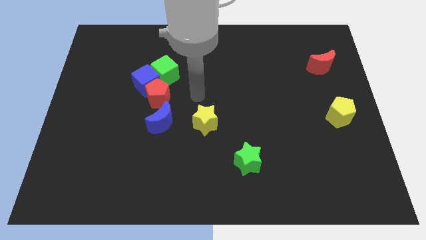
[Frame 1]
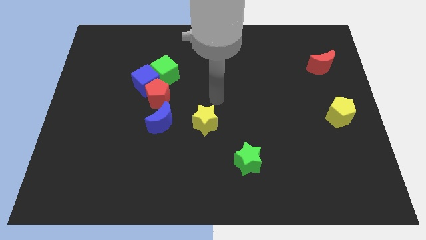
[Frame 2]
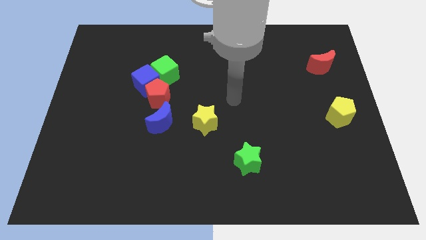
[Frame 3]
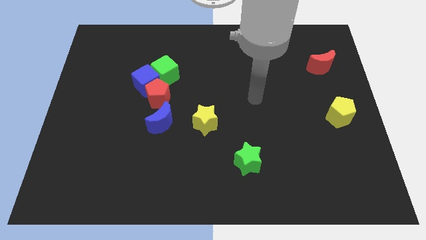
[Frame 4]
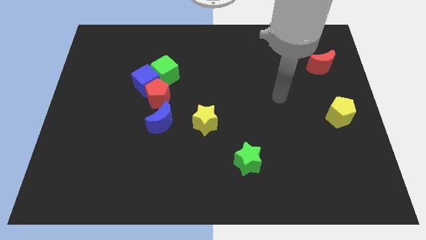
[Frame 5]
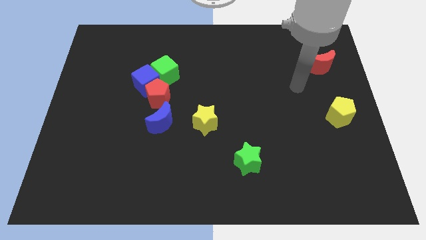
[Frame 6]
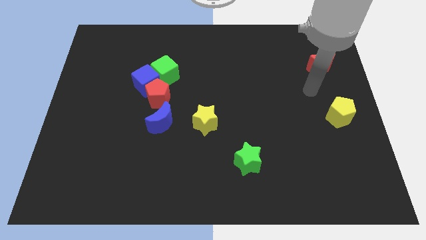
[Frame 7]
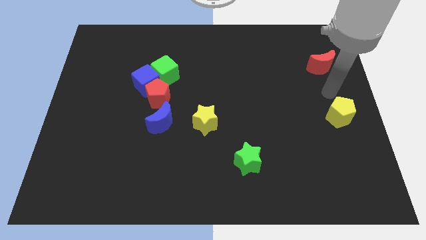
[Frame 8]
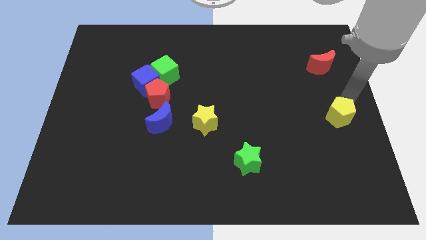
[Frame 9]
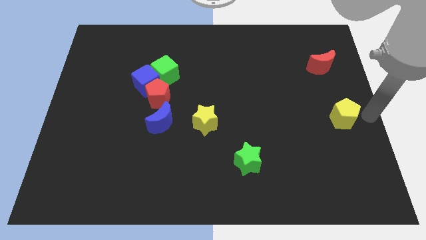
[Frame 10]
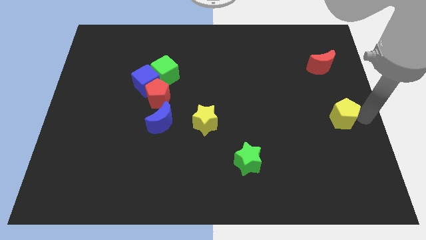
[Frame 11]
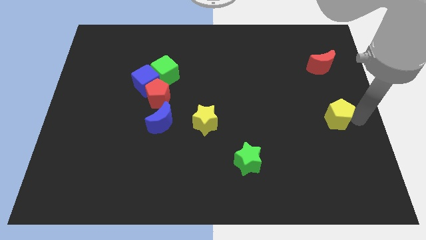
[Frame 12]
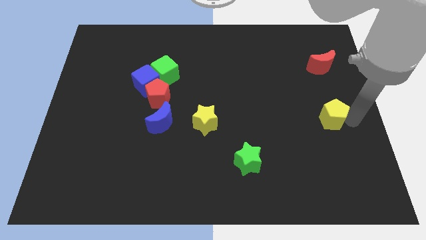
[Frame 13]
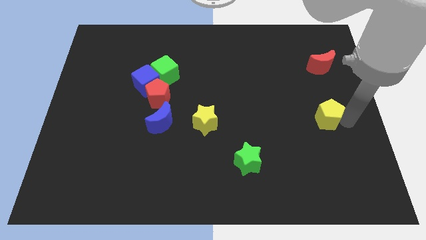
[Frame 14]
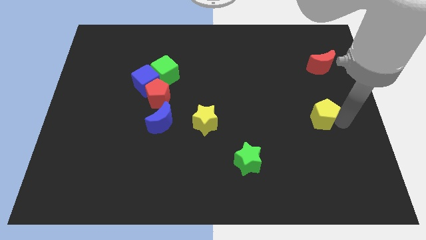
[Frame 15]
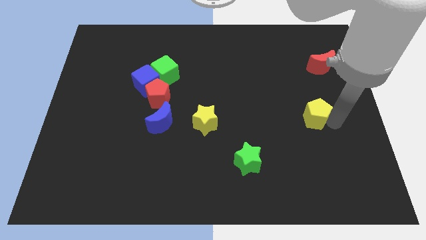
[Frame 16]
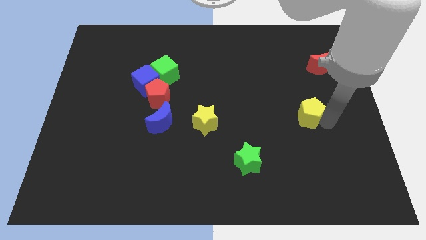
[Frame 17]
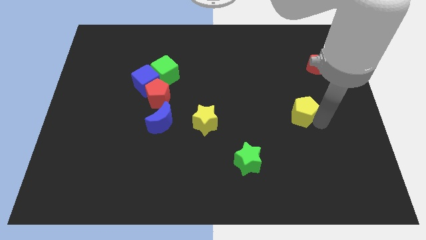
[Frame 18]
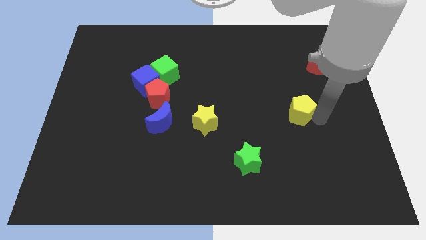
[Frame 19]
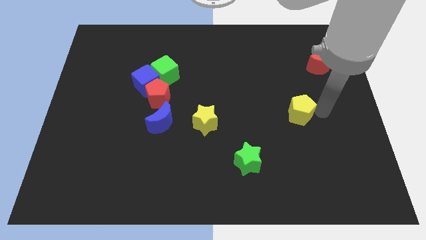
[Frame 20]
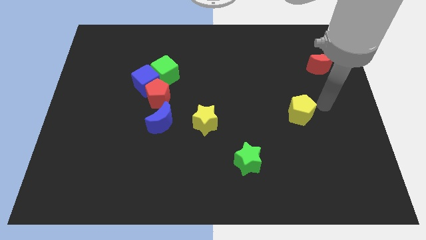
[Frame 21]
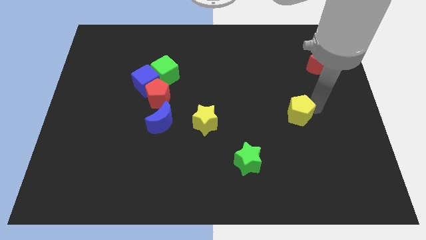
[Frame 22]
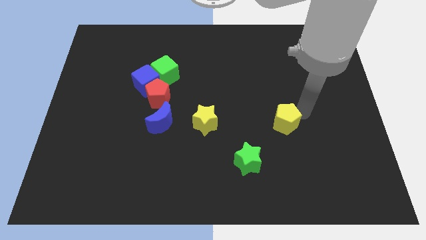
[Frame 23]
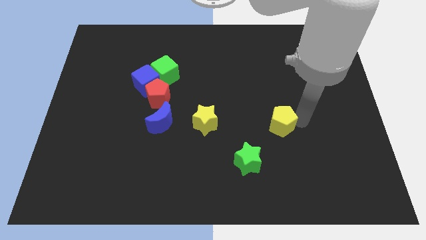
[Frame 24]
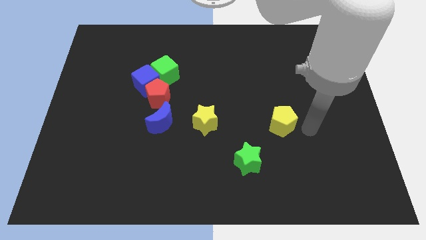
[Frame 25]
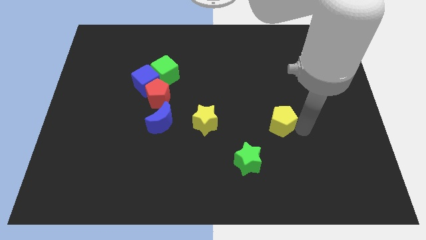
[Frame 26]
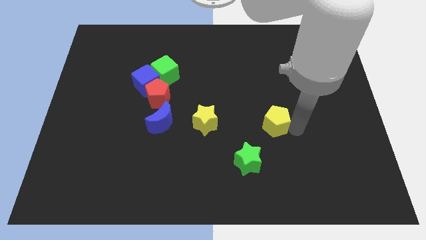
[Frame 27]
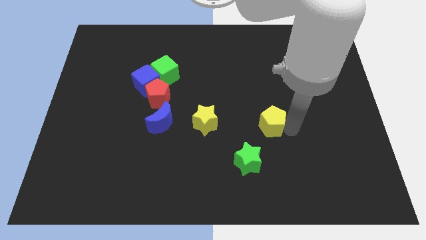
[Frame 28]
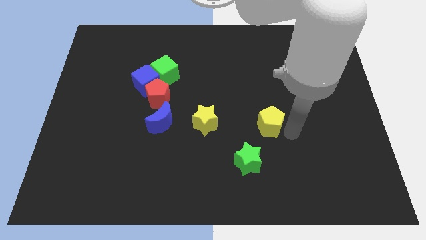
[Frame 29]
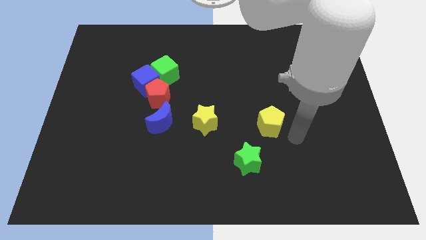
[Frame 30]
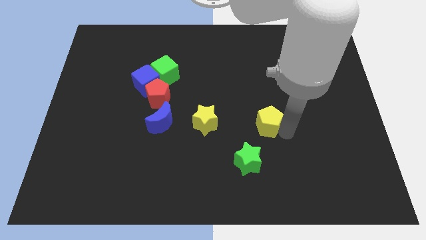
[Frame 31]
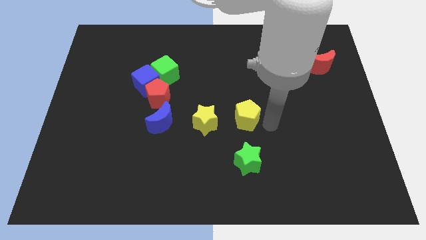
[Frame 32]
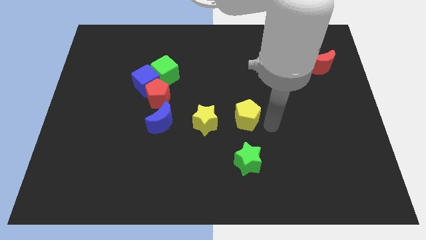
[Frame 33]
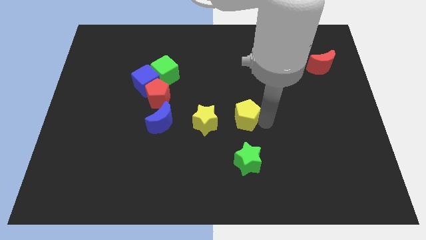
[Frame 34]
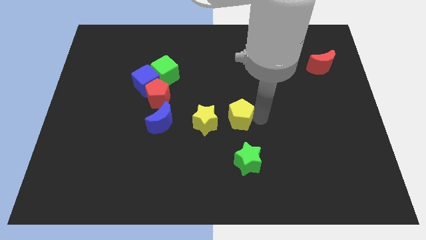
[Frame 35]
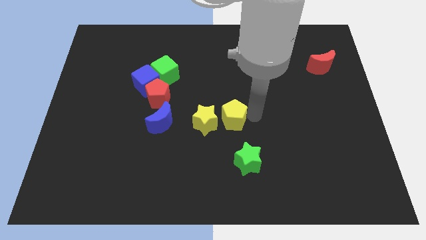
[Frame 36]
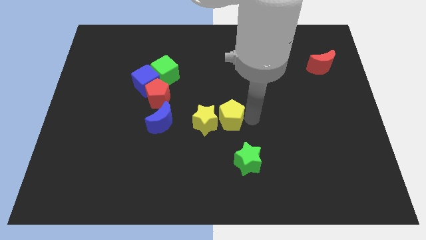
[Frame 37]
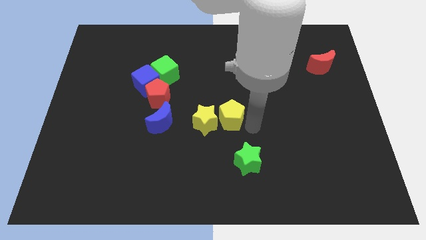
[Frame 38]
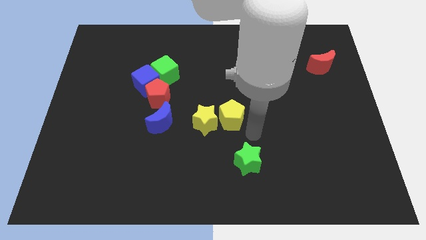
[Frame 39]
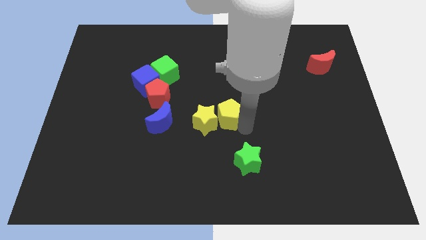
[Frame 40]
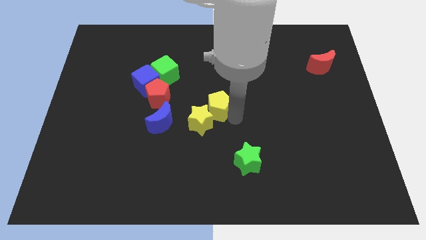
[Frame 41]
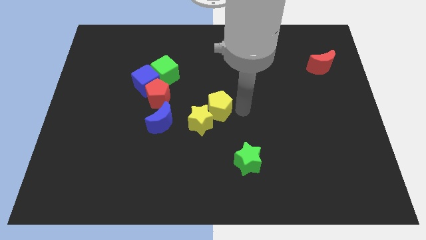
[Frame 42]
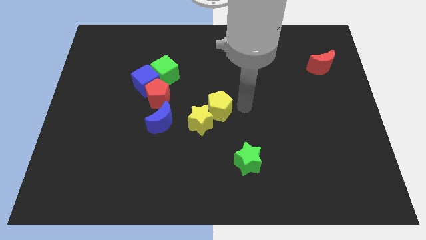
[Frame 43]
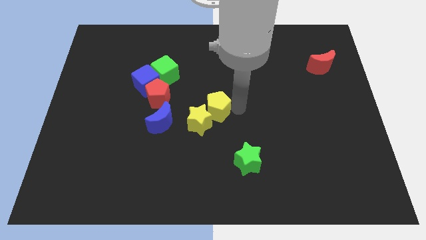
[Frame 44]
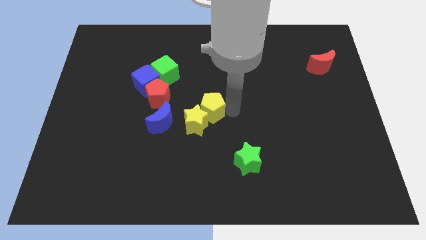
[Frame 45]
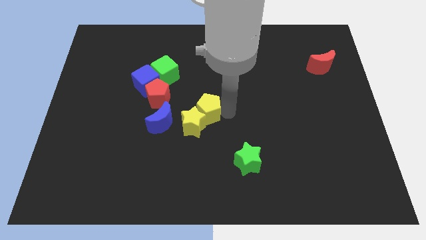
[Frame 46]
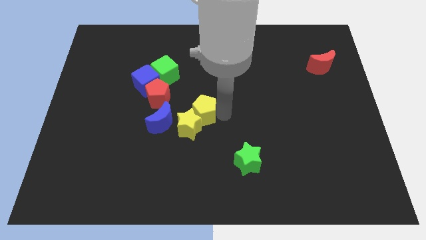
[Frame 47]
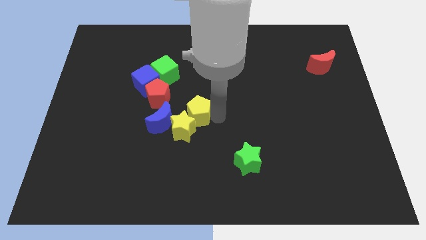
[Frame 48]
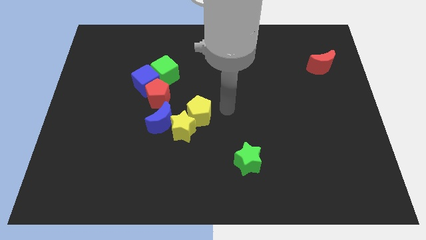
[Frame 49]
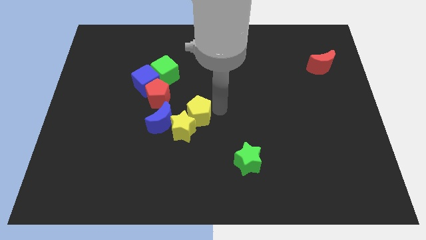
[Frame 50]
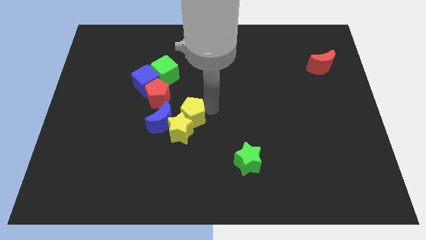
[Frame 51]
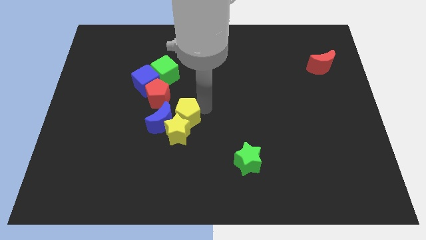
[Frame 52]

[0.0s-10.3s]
move the yellow pentagon towards the blue moon

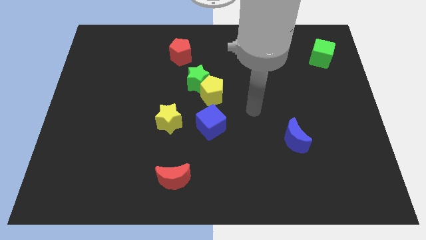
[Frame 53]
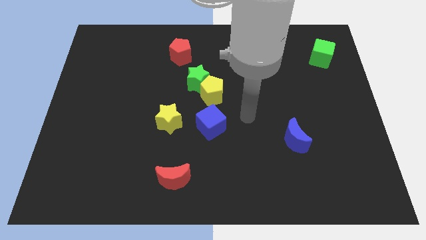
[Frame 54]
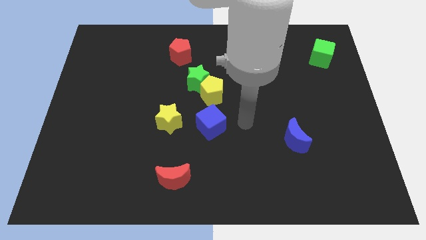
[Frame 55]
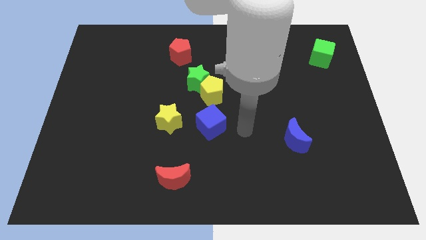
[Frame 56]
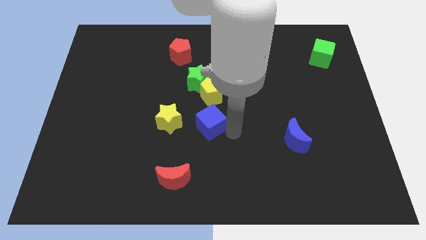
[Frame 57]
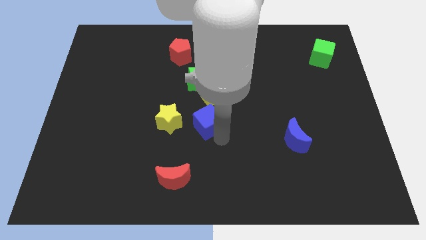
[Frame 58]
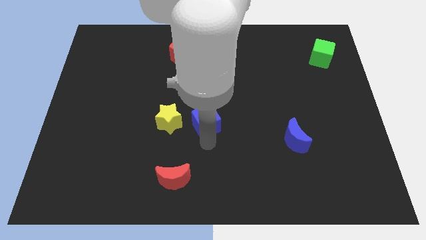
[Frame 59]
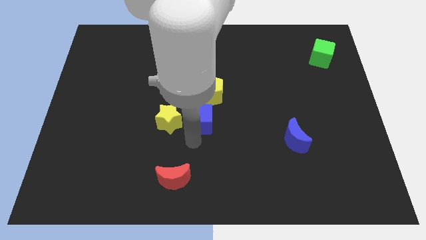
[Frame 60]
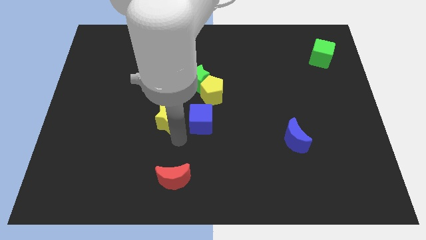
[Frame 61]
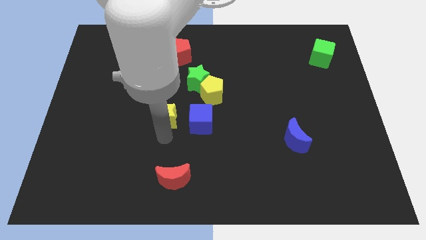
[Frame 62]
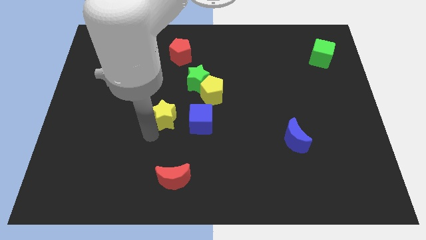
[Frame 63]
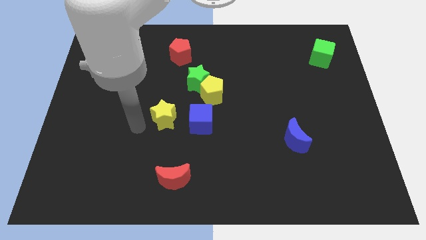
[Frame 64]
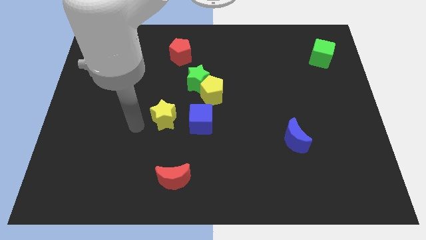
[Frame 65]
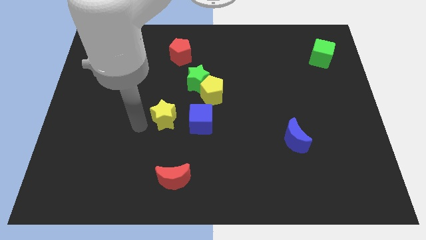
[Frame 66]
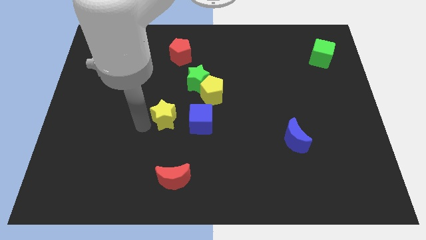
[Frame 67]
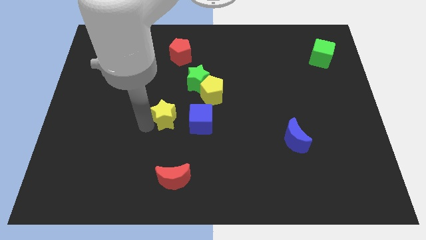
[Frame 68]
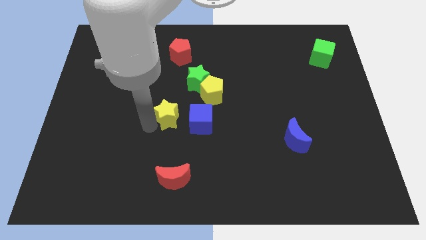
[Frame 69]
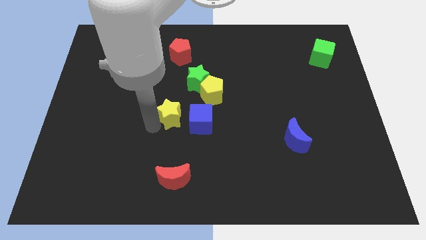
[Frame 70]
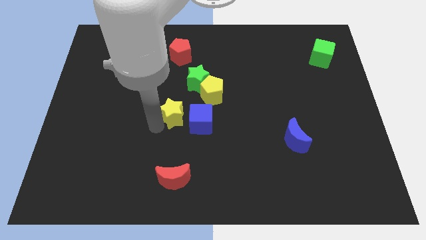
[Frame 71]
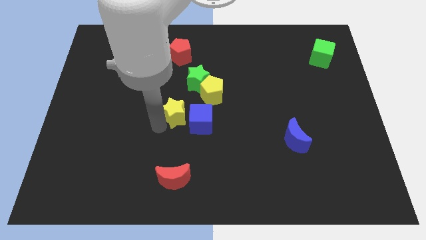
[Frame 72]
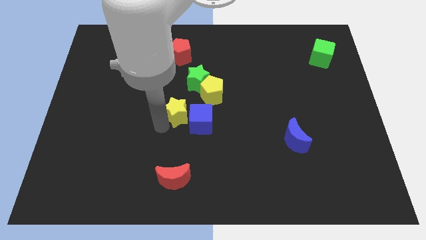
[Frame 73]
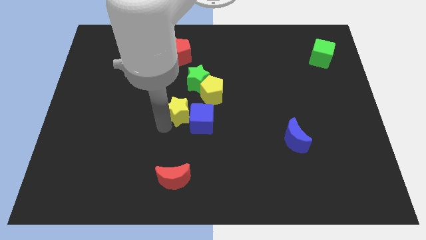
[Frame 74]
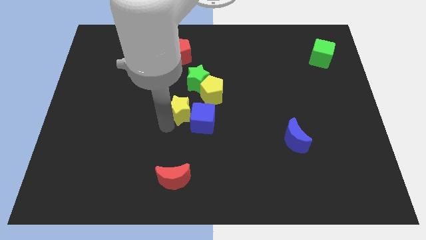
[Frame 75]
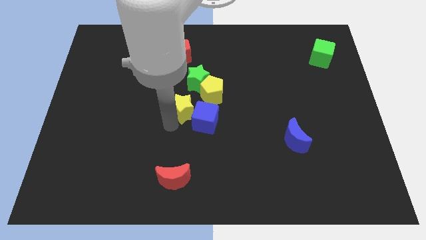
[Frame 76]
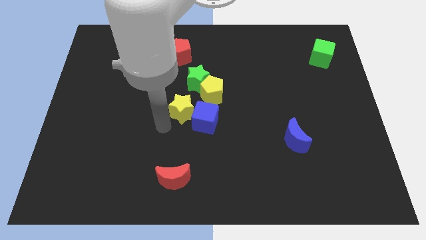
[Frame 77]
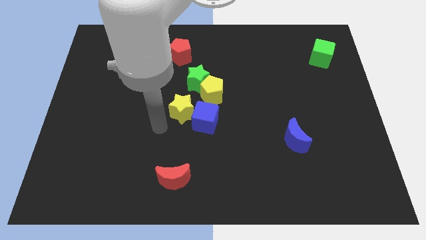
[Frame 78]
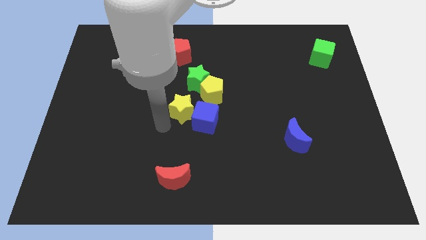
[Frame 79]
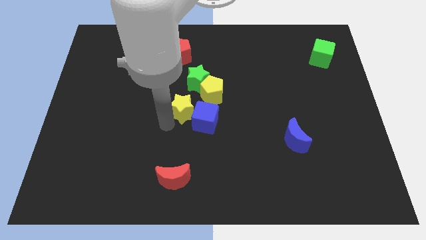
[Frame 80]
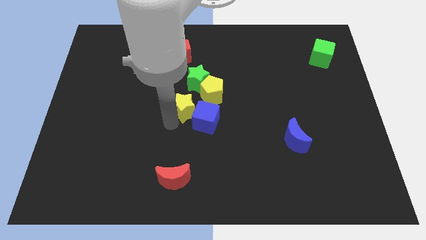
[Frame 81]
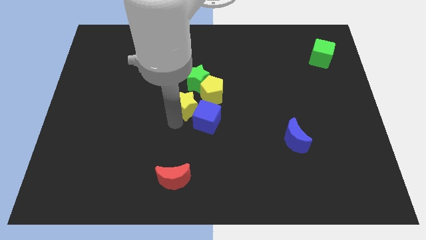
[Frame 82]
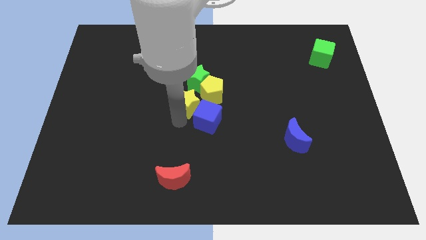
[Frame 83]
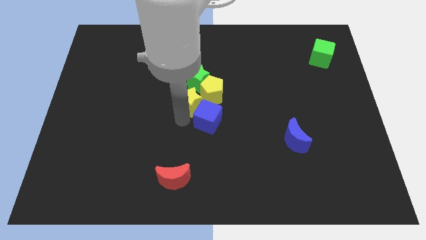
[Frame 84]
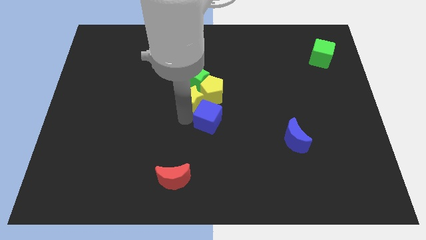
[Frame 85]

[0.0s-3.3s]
slide the yellow star to the yellow pentagon
